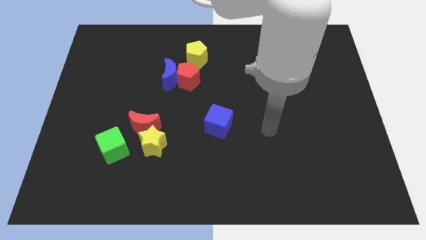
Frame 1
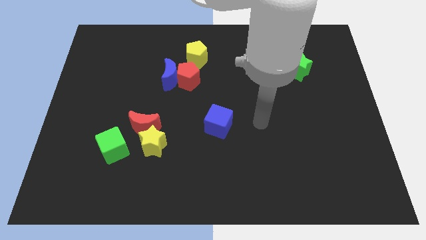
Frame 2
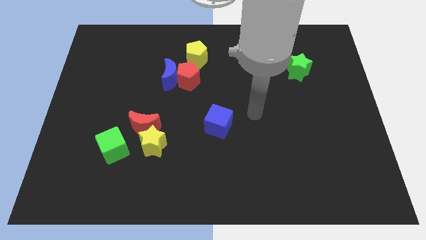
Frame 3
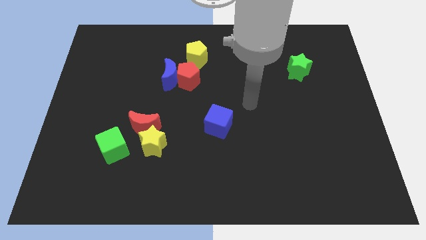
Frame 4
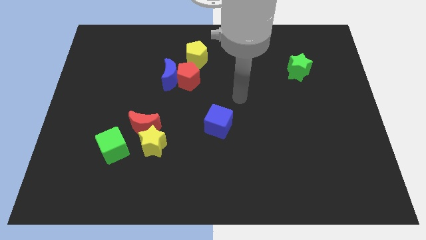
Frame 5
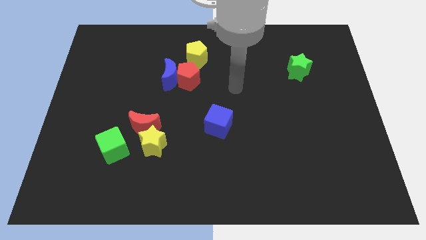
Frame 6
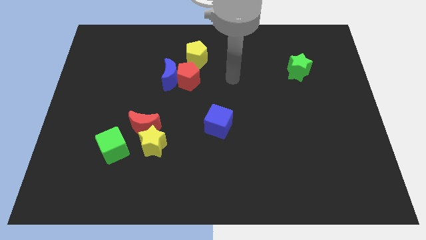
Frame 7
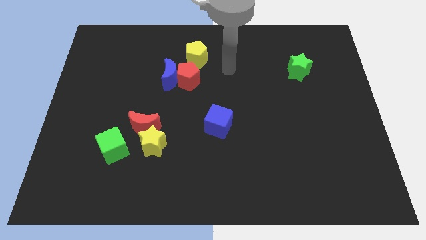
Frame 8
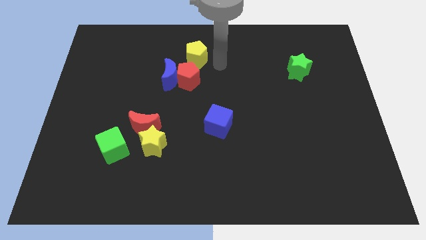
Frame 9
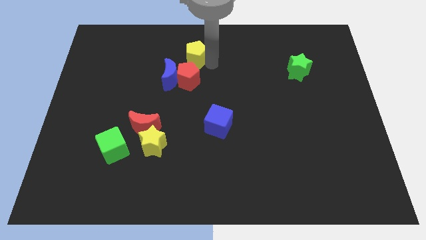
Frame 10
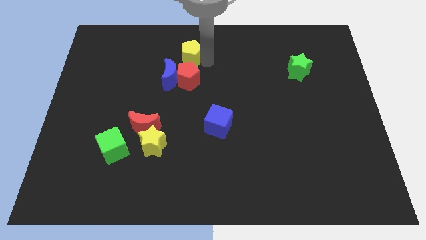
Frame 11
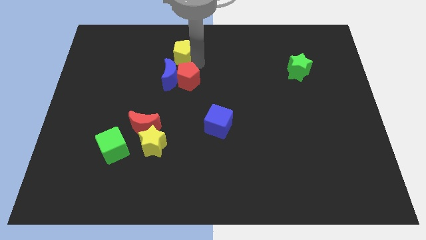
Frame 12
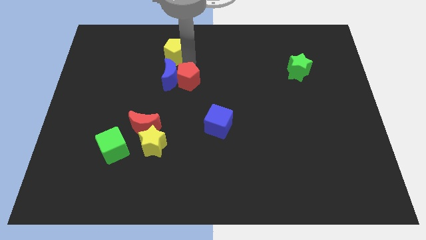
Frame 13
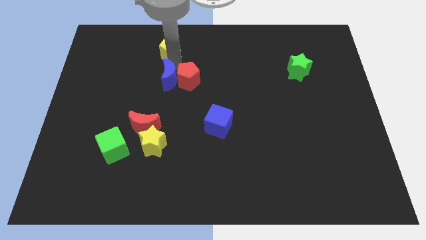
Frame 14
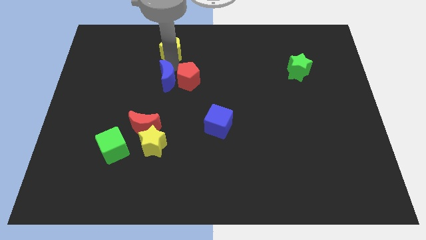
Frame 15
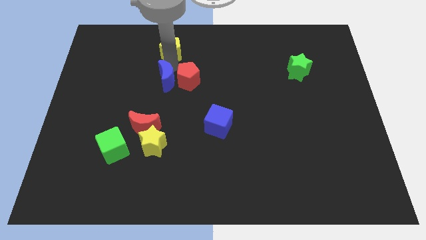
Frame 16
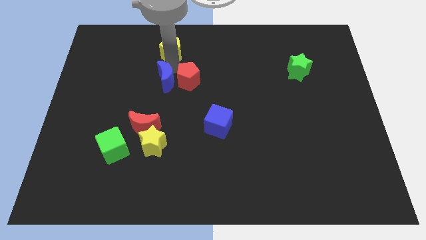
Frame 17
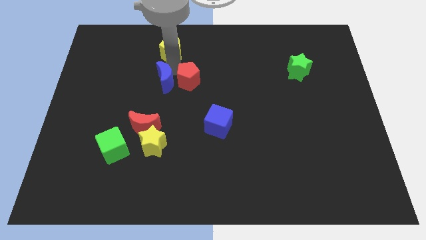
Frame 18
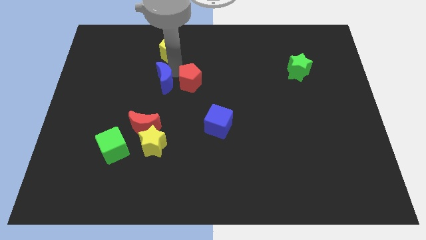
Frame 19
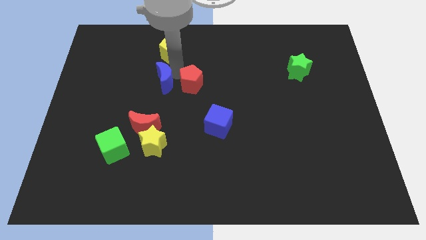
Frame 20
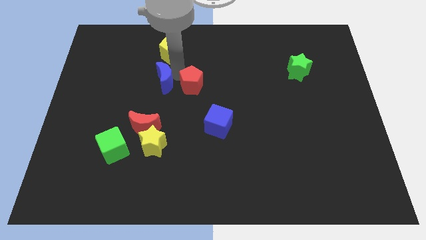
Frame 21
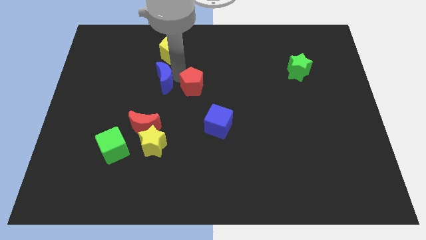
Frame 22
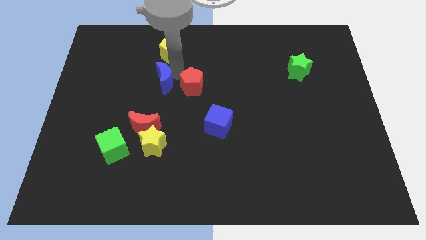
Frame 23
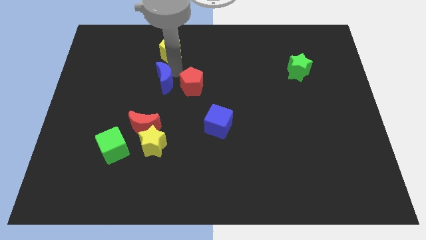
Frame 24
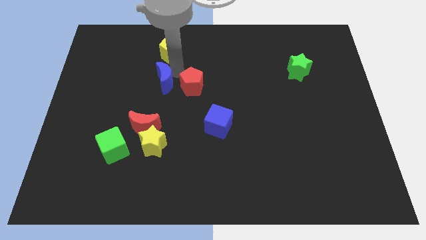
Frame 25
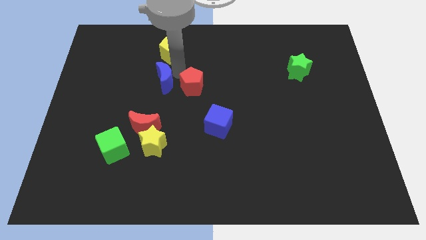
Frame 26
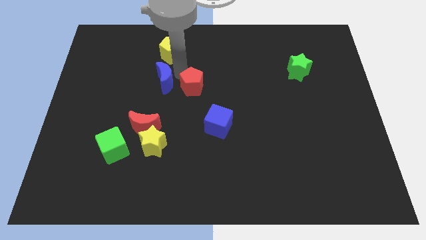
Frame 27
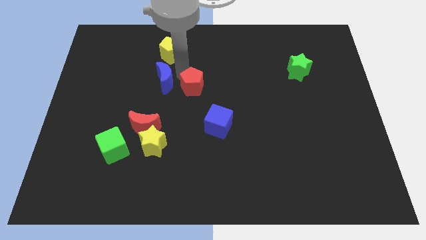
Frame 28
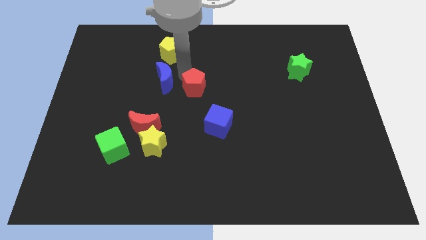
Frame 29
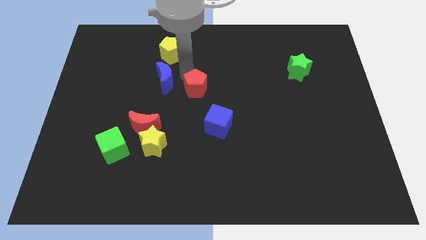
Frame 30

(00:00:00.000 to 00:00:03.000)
separate the red pentagon from the blue moon and yellow pentagon

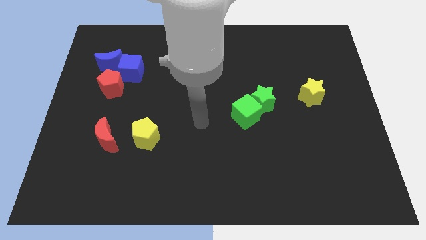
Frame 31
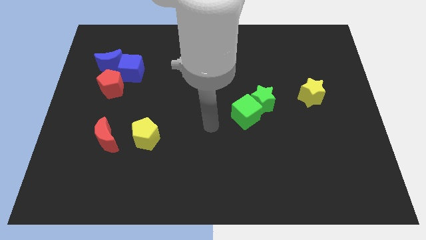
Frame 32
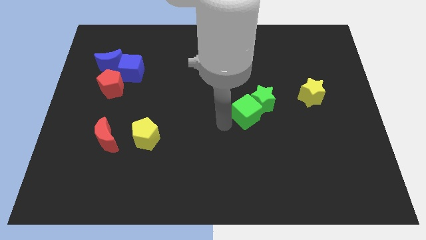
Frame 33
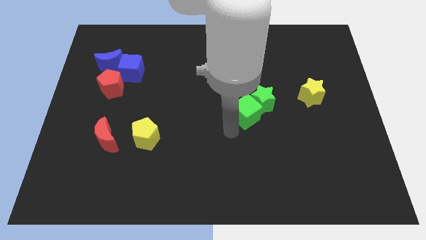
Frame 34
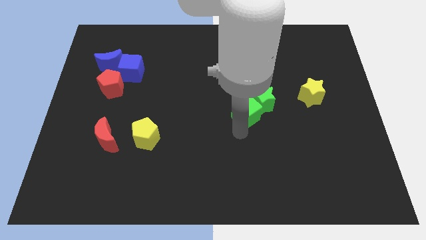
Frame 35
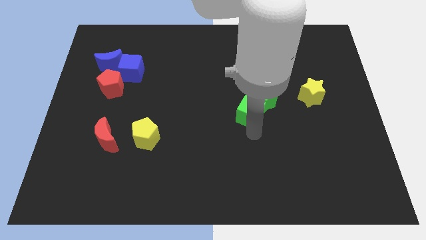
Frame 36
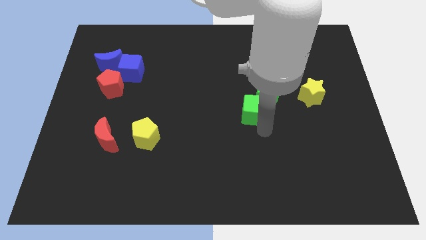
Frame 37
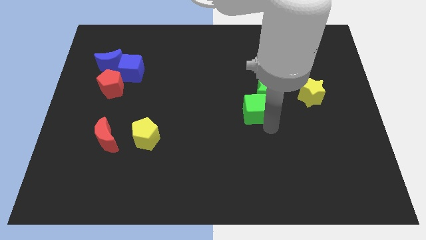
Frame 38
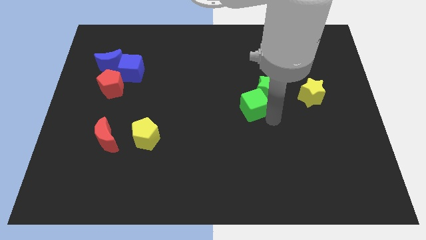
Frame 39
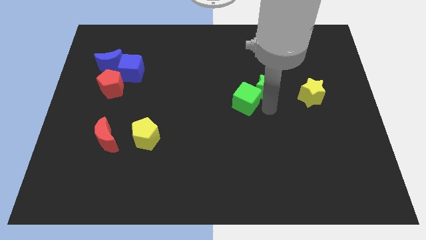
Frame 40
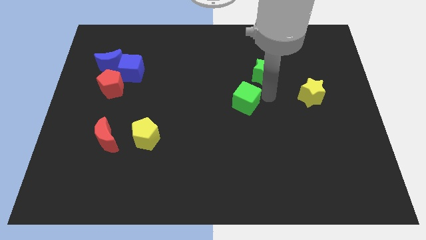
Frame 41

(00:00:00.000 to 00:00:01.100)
move the green cube away from the green star

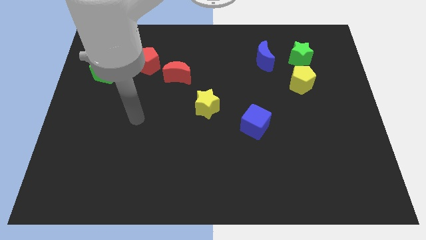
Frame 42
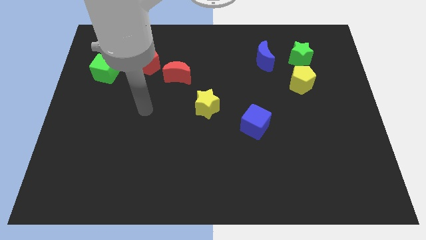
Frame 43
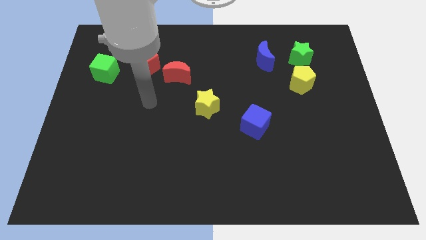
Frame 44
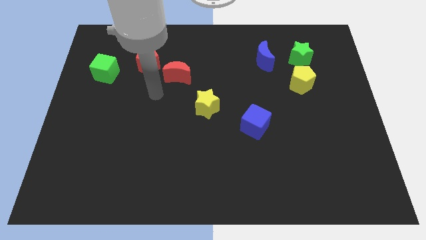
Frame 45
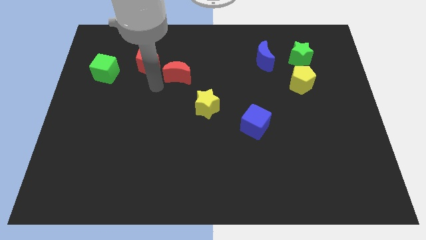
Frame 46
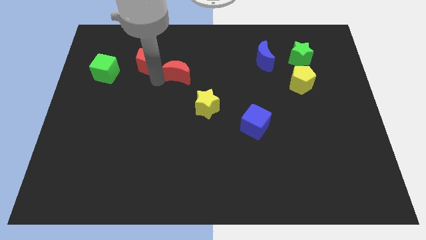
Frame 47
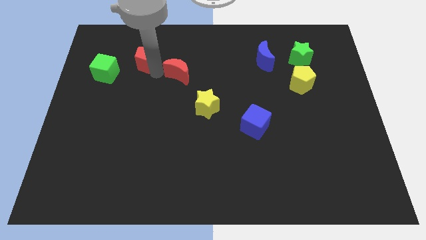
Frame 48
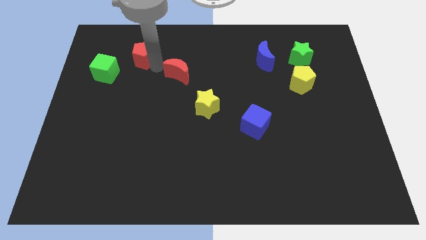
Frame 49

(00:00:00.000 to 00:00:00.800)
pull the red moon apart from the red pentagon

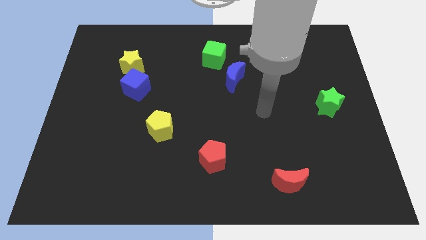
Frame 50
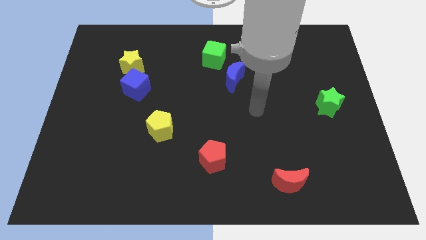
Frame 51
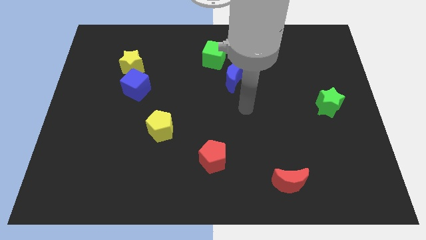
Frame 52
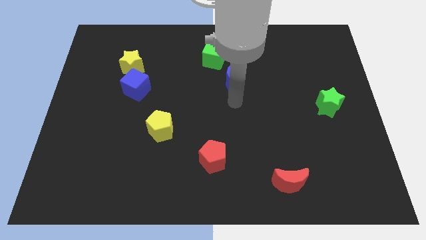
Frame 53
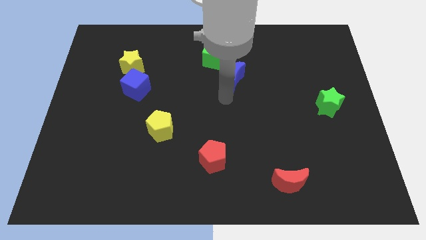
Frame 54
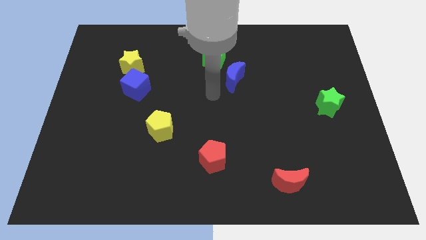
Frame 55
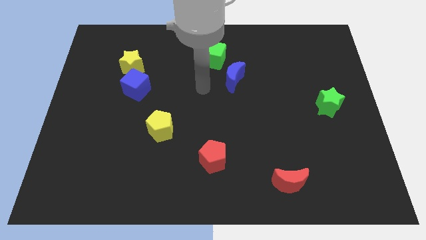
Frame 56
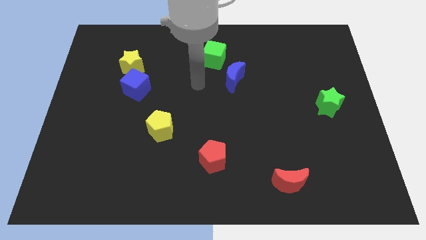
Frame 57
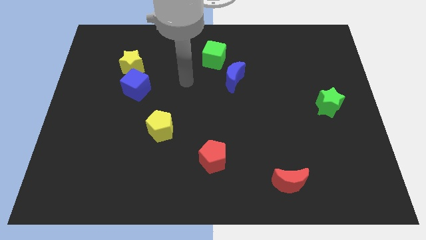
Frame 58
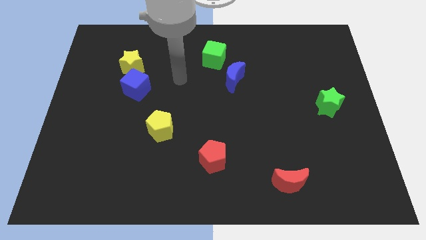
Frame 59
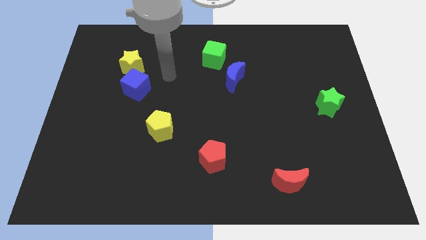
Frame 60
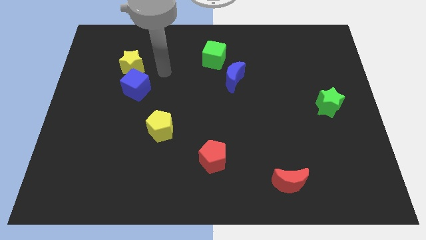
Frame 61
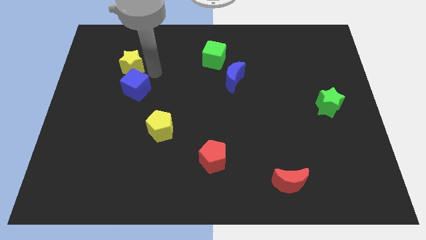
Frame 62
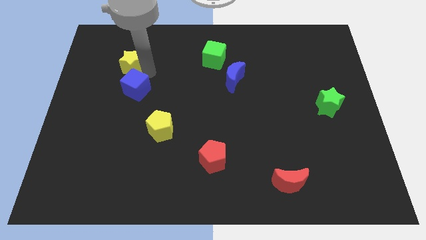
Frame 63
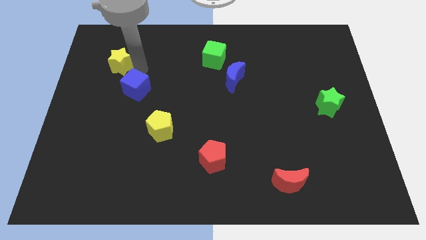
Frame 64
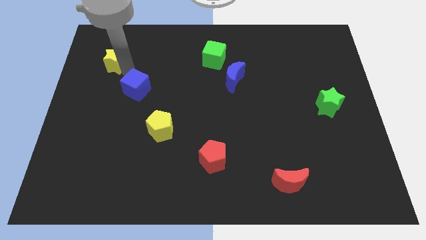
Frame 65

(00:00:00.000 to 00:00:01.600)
move the blue cube away from the yellow star

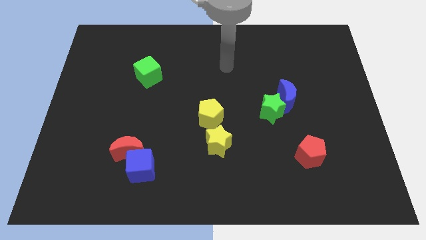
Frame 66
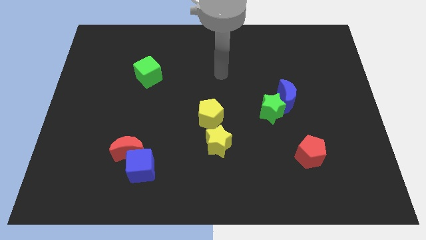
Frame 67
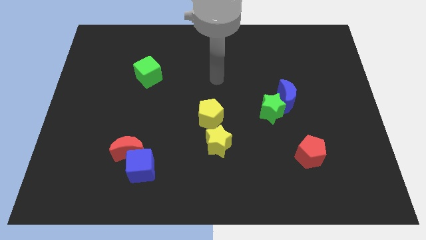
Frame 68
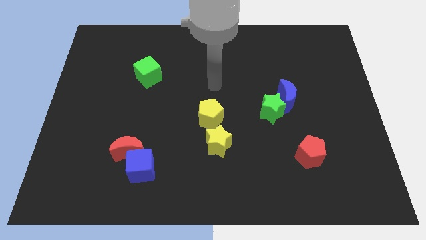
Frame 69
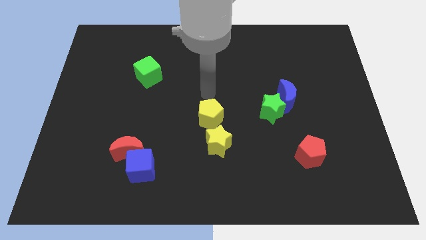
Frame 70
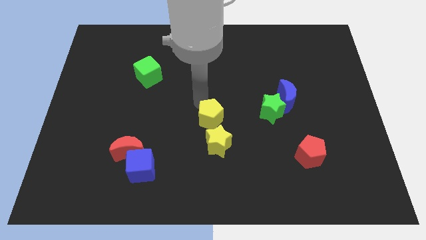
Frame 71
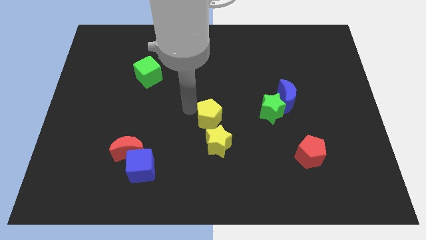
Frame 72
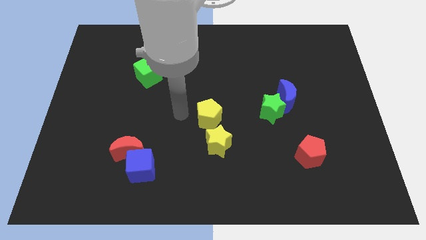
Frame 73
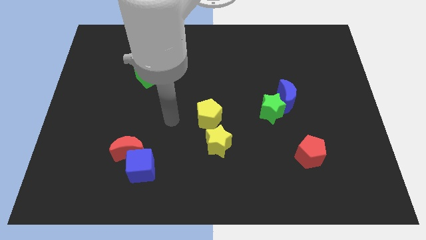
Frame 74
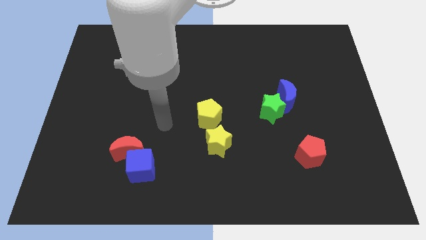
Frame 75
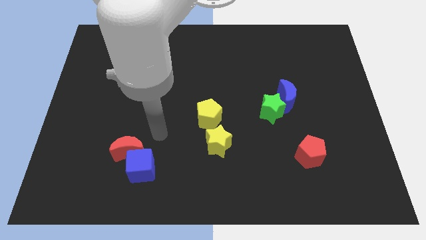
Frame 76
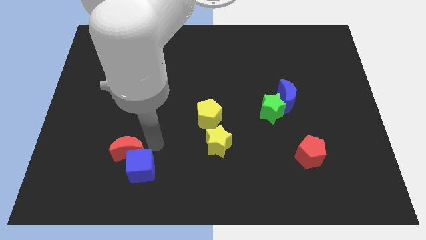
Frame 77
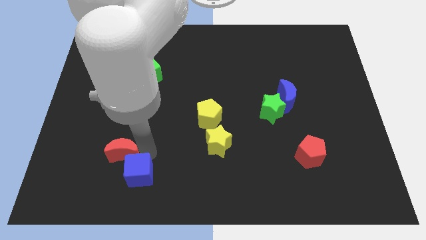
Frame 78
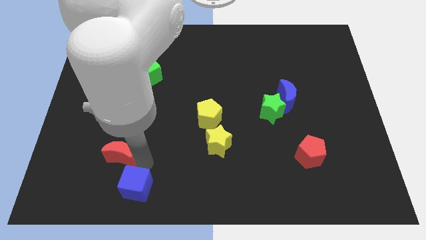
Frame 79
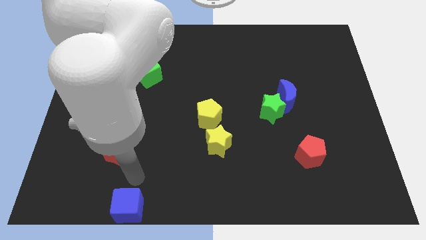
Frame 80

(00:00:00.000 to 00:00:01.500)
move the red moon away from the blue cube

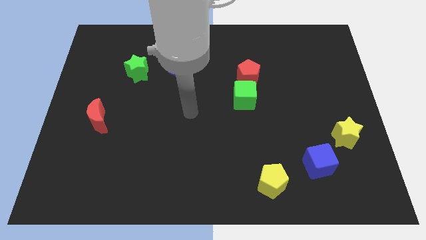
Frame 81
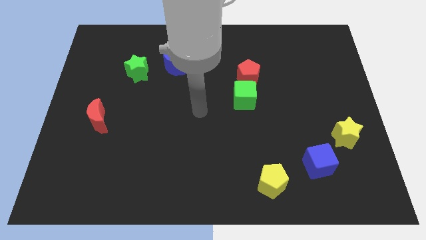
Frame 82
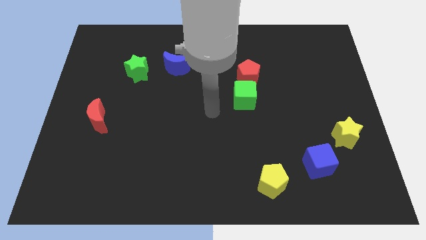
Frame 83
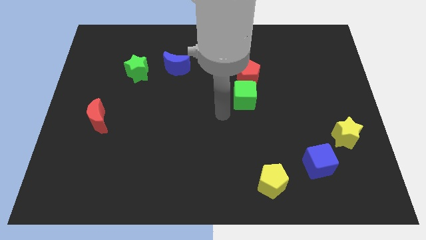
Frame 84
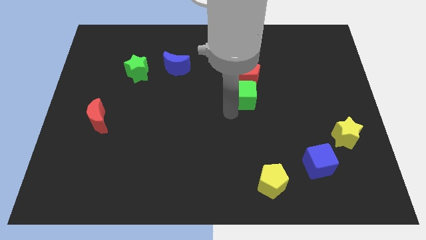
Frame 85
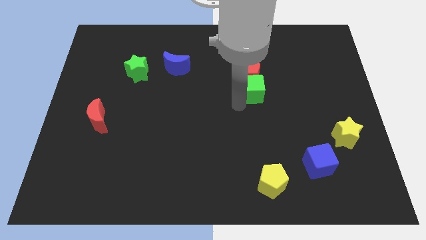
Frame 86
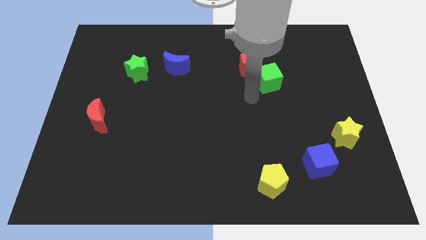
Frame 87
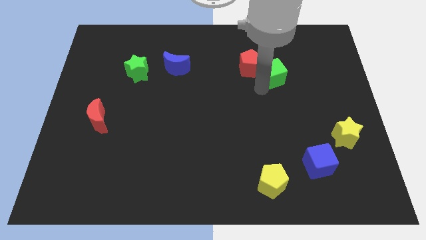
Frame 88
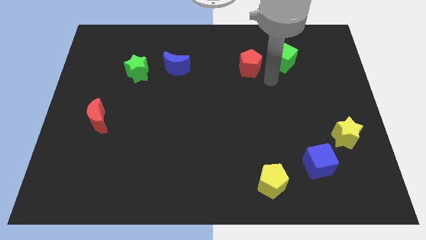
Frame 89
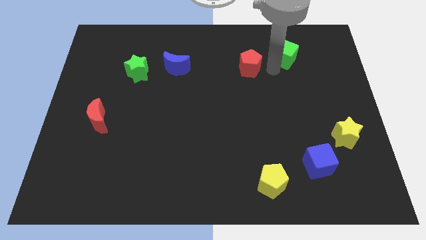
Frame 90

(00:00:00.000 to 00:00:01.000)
separate the red pentagon from the green cube

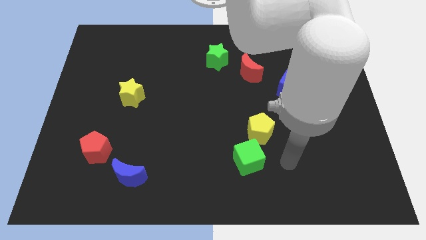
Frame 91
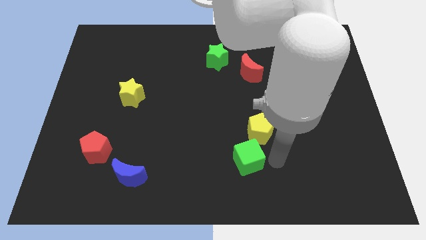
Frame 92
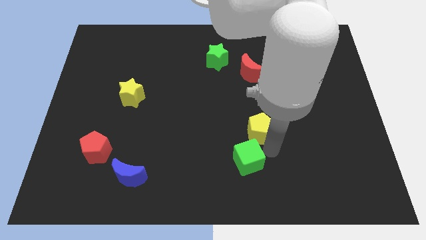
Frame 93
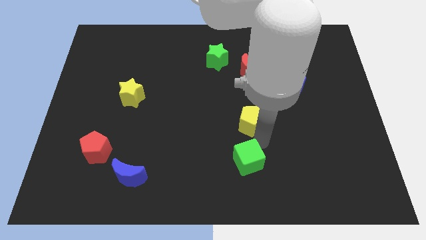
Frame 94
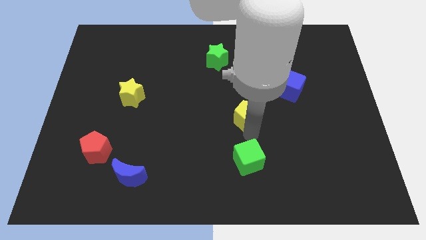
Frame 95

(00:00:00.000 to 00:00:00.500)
move the green cube away from the yellow pentagon
